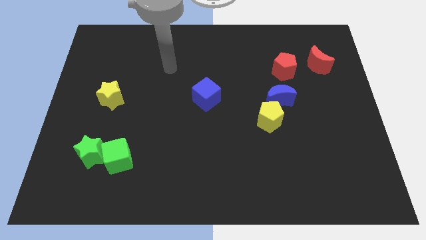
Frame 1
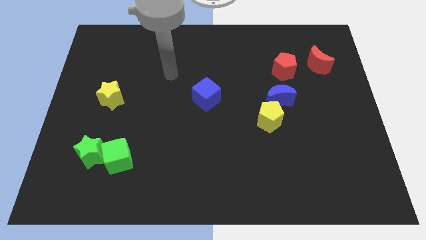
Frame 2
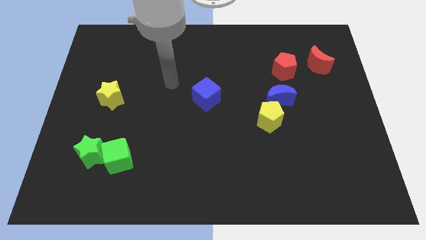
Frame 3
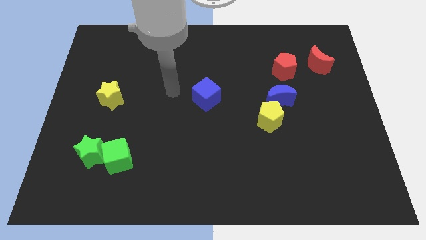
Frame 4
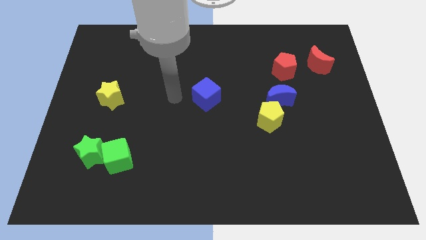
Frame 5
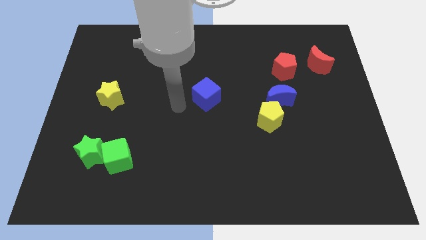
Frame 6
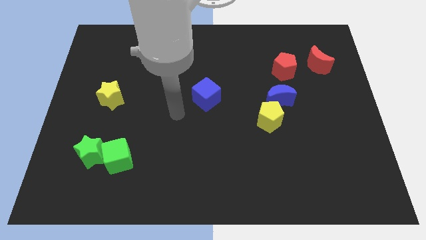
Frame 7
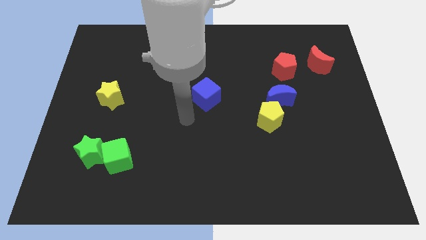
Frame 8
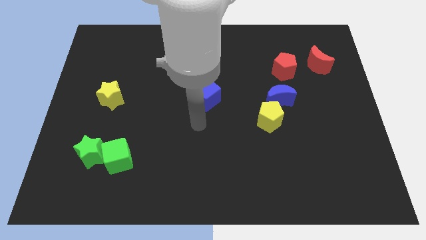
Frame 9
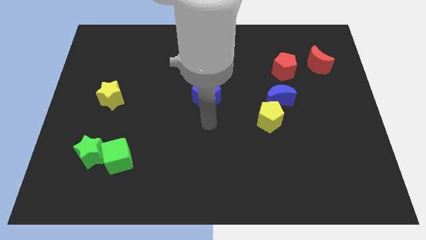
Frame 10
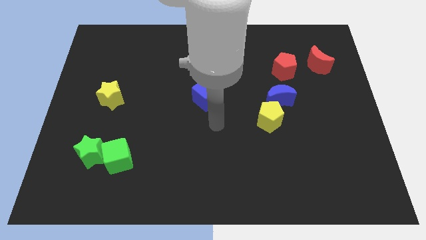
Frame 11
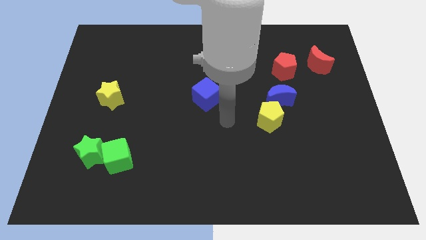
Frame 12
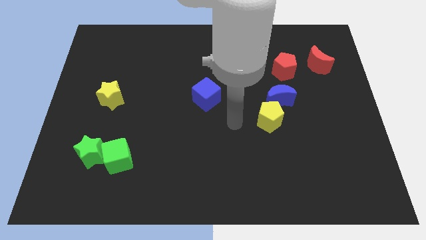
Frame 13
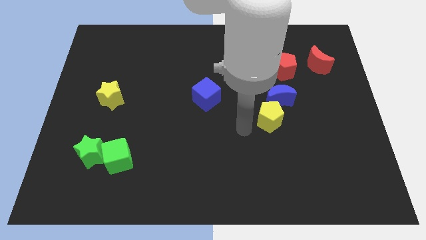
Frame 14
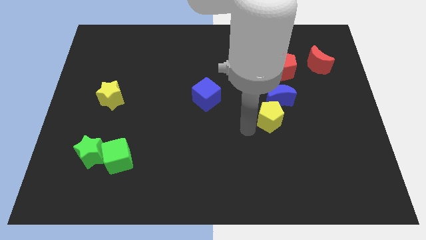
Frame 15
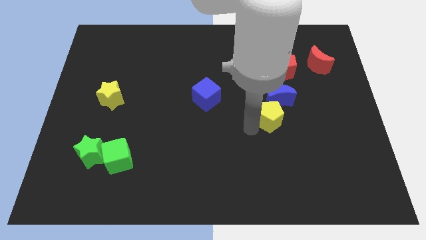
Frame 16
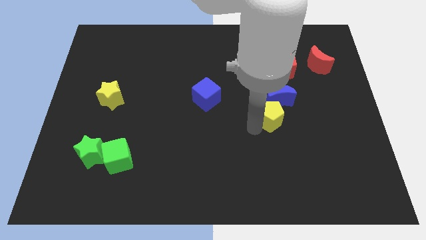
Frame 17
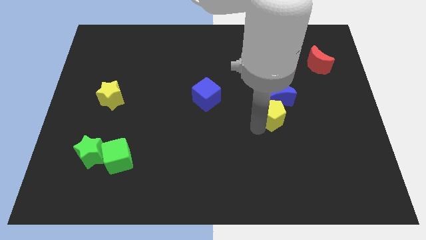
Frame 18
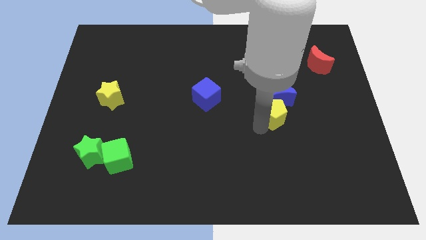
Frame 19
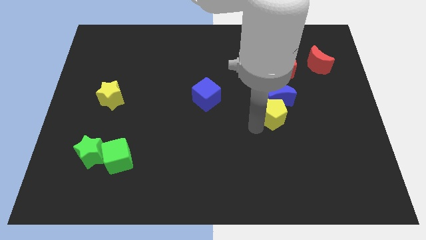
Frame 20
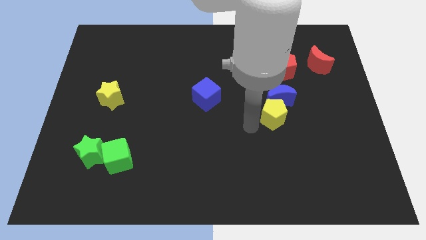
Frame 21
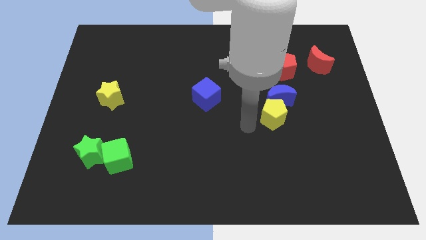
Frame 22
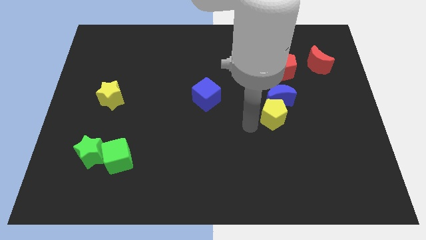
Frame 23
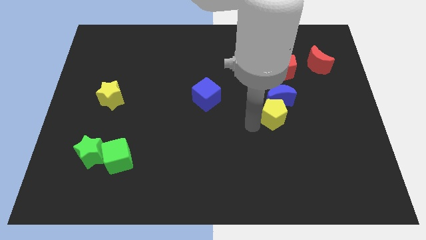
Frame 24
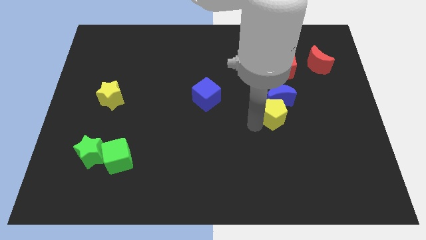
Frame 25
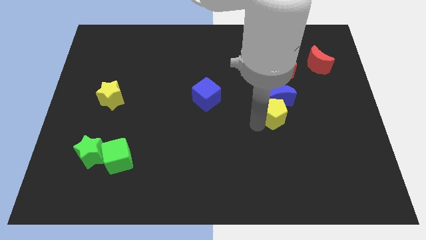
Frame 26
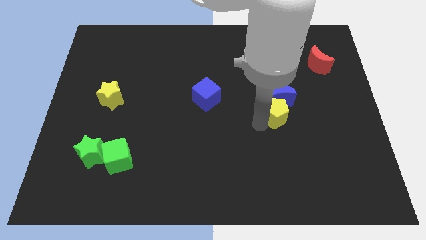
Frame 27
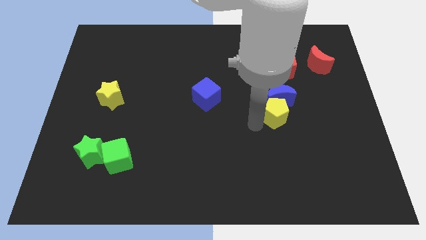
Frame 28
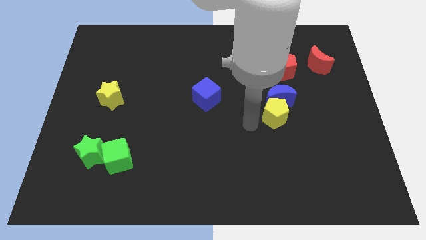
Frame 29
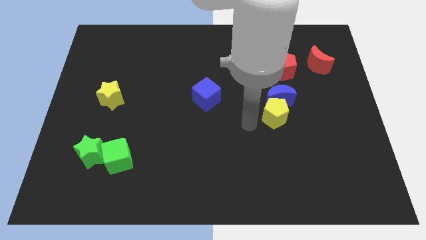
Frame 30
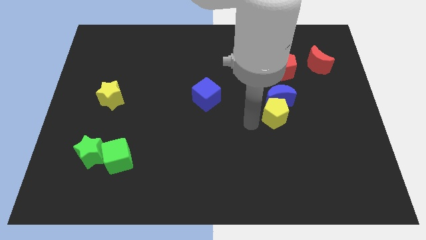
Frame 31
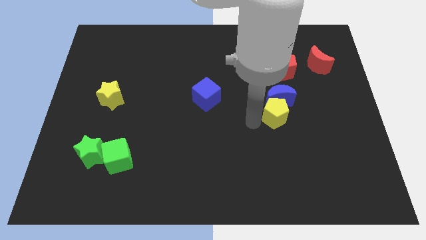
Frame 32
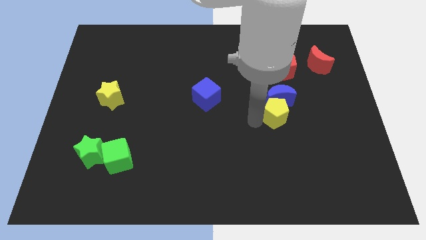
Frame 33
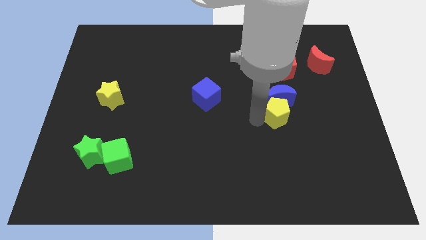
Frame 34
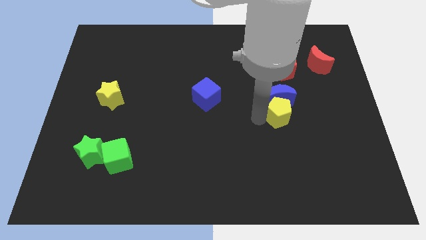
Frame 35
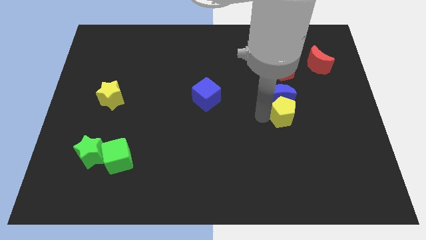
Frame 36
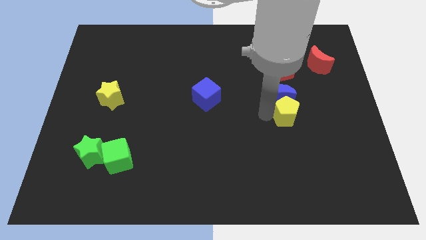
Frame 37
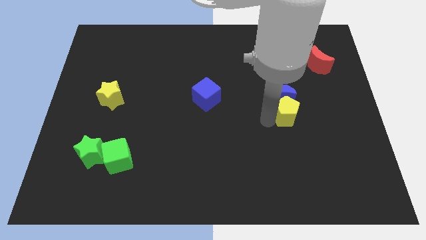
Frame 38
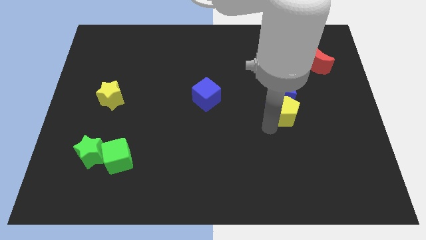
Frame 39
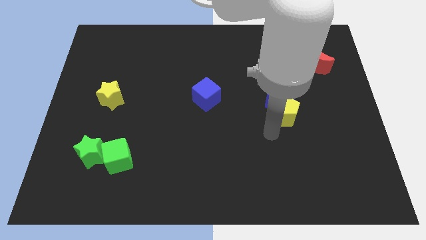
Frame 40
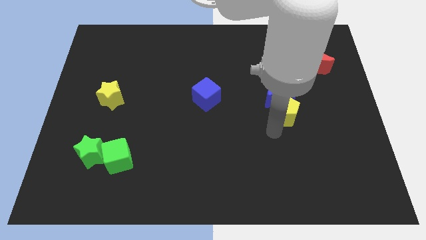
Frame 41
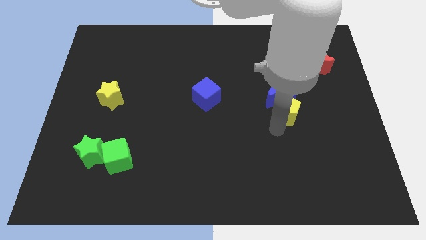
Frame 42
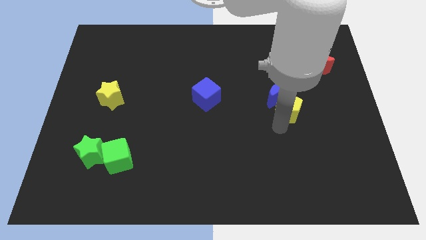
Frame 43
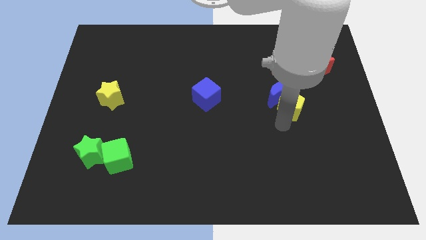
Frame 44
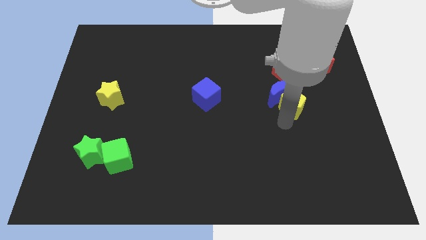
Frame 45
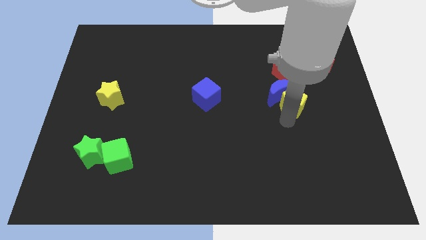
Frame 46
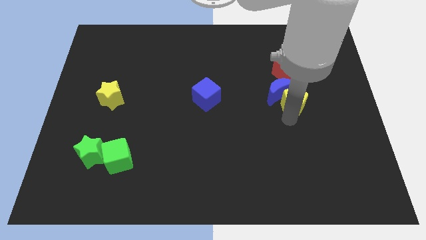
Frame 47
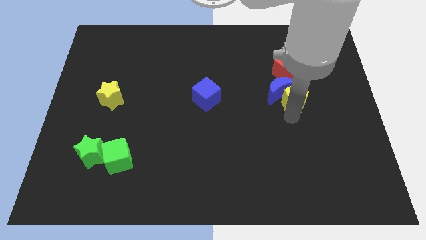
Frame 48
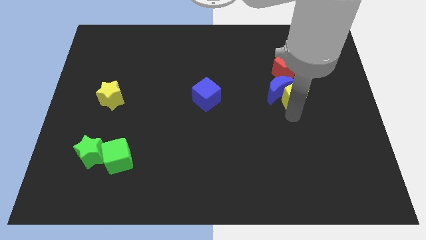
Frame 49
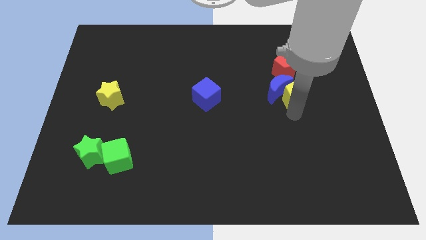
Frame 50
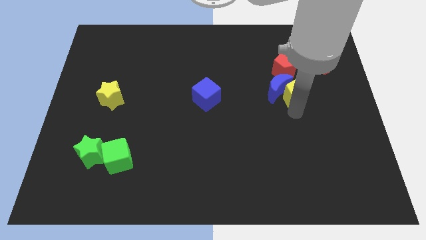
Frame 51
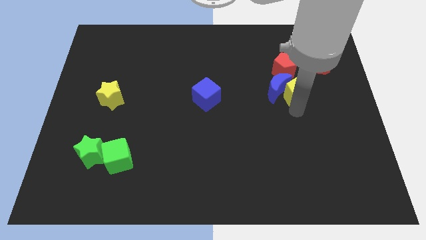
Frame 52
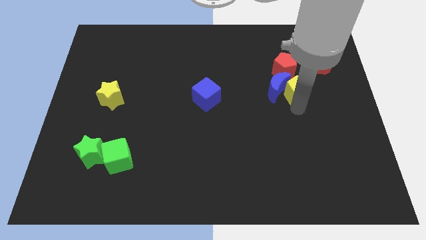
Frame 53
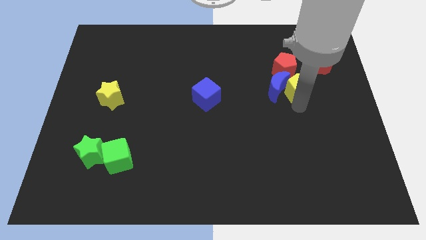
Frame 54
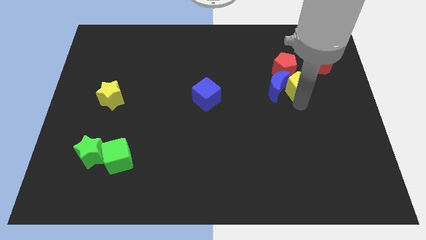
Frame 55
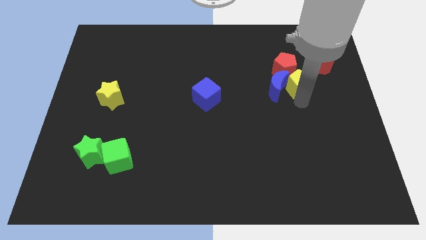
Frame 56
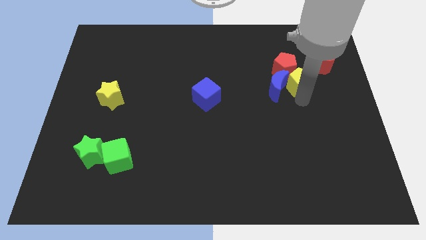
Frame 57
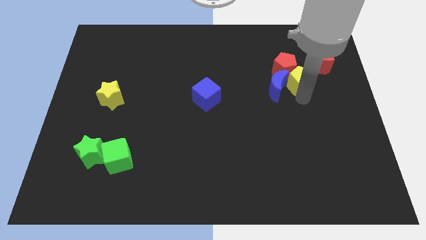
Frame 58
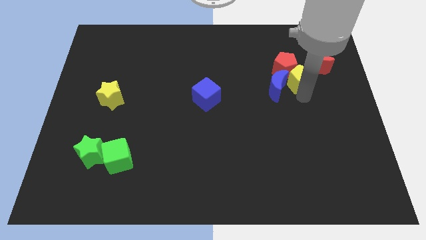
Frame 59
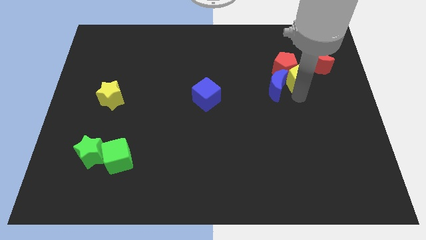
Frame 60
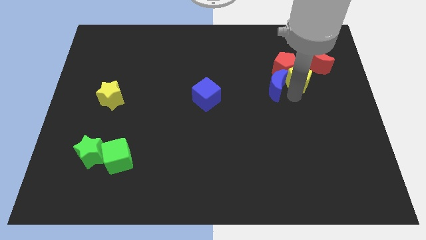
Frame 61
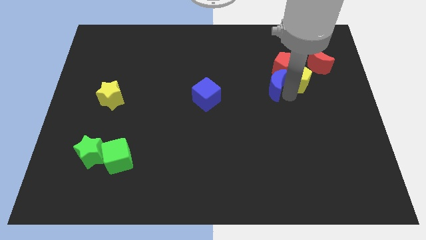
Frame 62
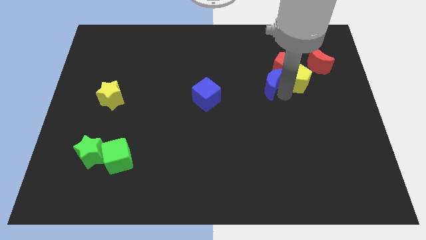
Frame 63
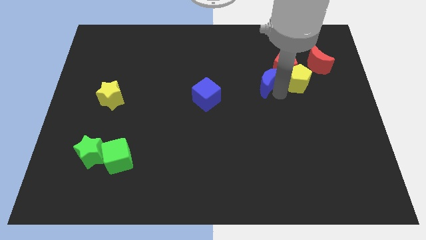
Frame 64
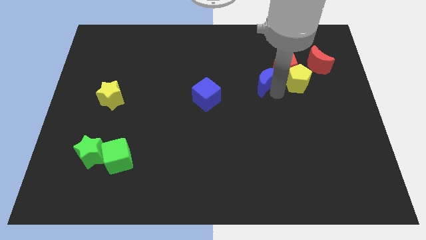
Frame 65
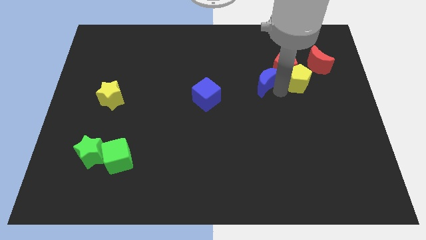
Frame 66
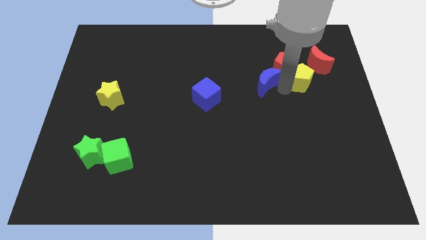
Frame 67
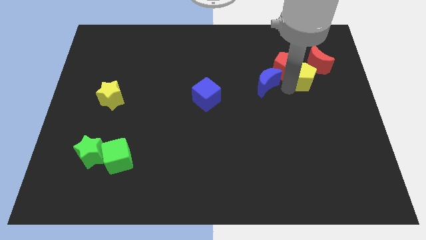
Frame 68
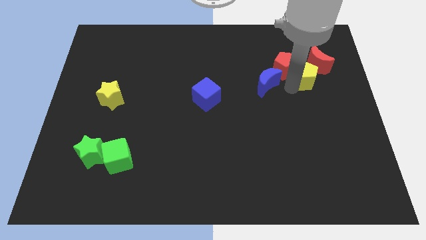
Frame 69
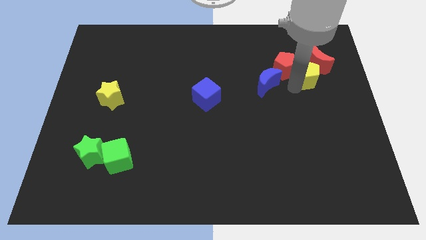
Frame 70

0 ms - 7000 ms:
move the yellow pentagon towards the red moon

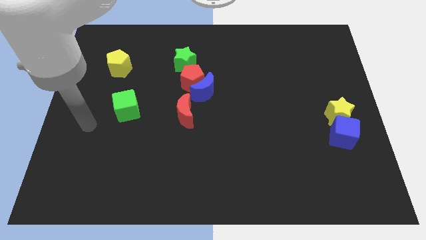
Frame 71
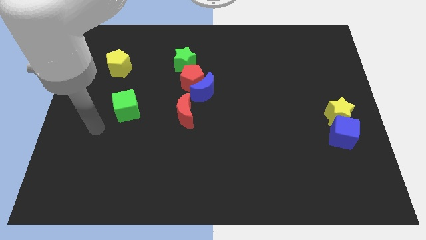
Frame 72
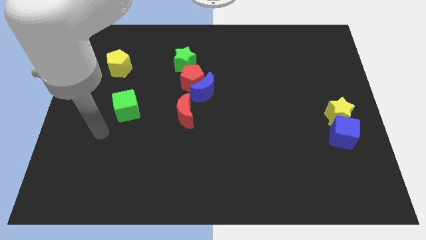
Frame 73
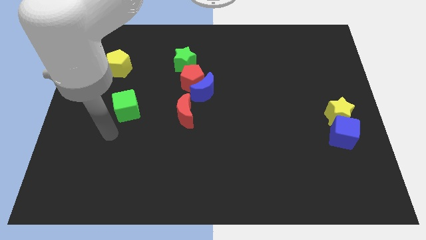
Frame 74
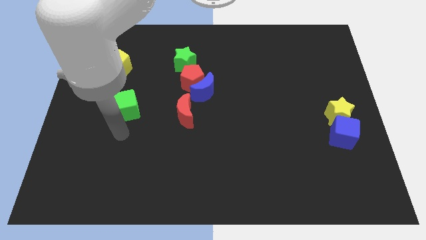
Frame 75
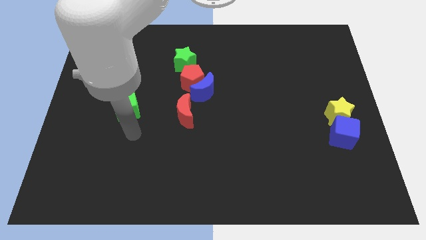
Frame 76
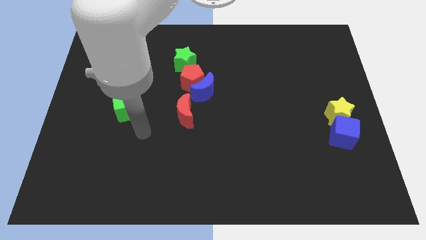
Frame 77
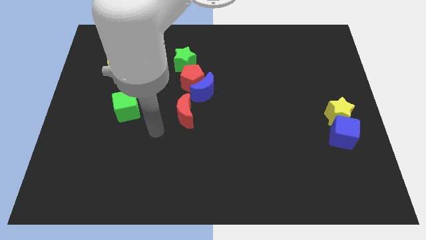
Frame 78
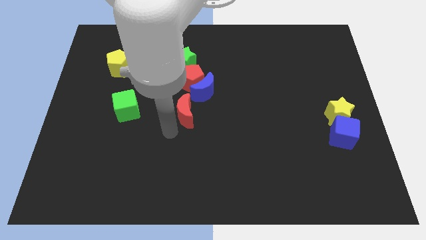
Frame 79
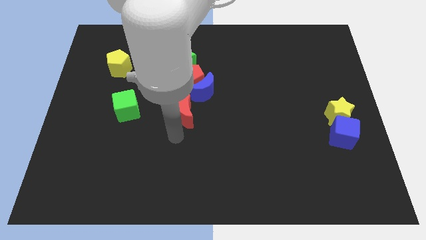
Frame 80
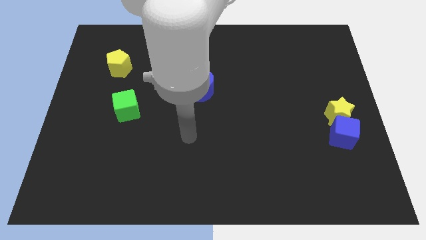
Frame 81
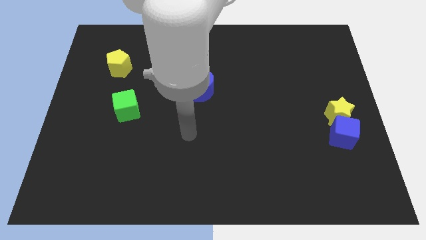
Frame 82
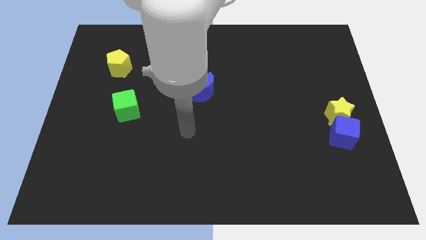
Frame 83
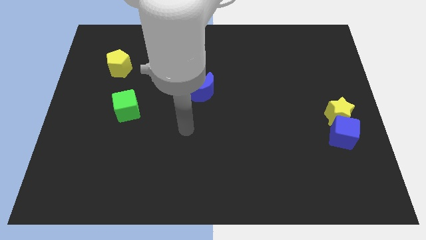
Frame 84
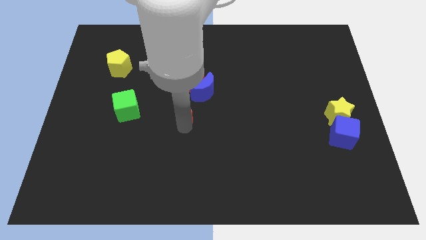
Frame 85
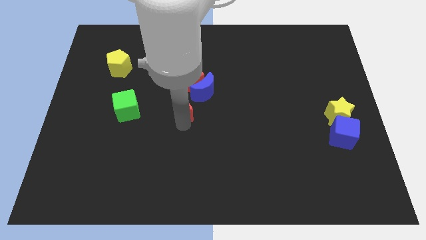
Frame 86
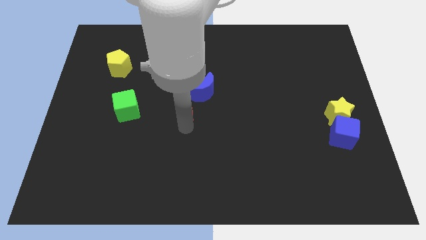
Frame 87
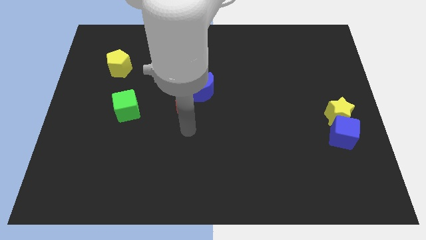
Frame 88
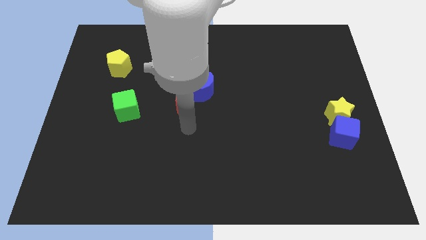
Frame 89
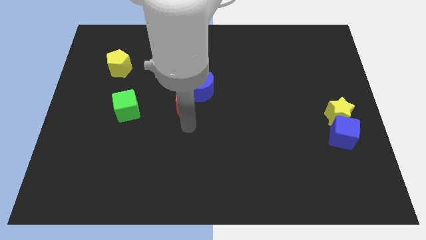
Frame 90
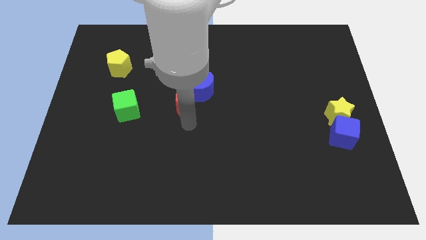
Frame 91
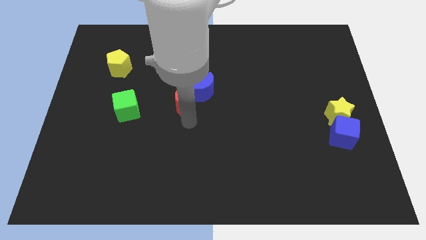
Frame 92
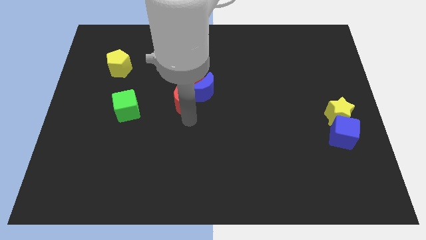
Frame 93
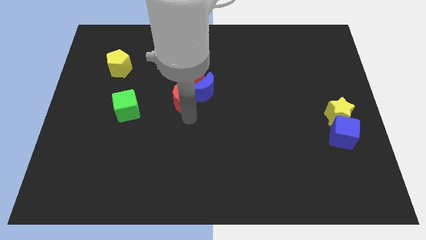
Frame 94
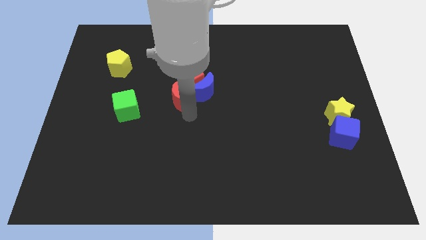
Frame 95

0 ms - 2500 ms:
put the red moon close to the blue moon
